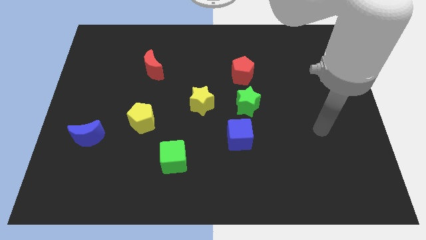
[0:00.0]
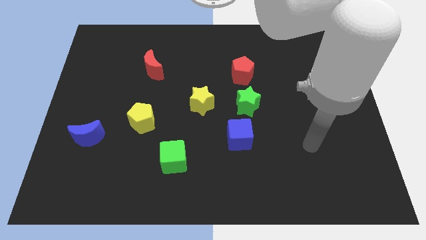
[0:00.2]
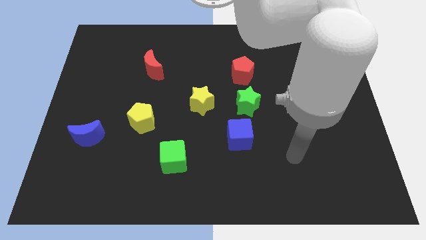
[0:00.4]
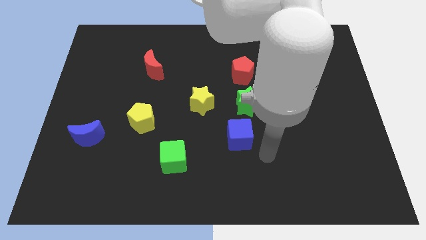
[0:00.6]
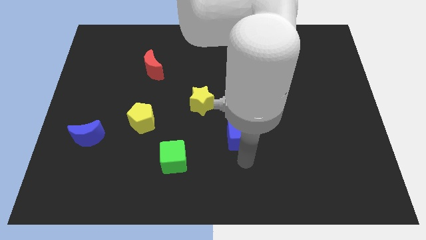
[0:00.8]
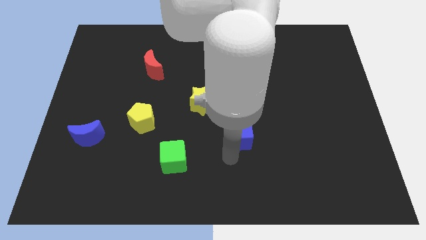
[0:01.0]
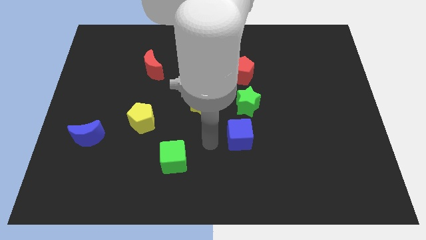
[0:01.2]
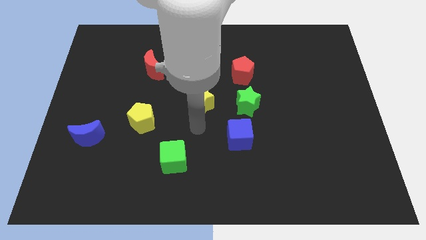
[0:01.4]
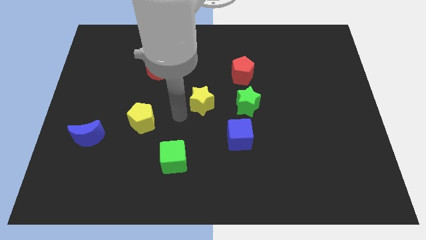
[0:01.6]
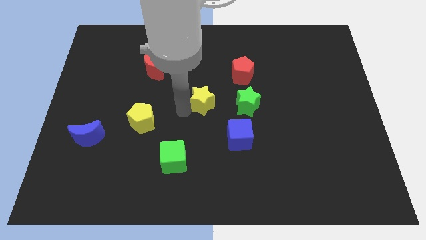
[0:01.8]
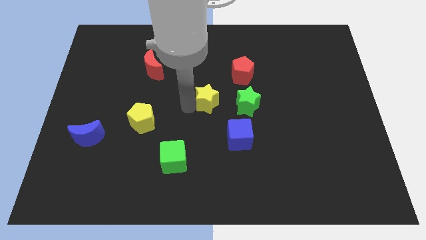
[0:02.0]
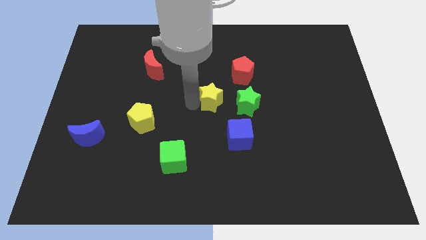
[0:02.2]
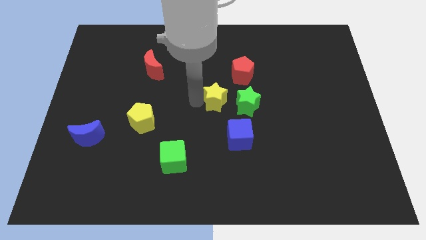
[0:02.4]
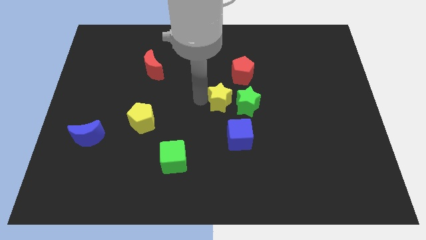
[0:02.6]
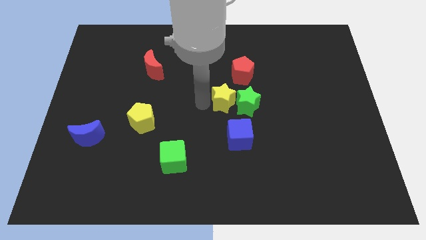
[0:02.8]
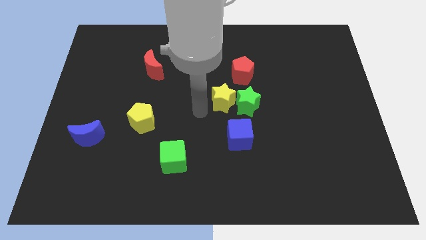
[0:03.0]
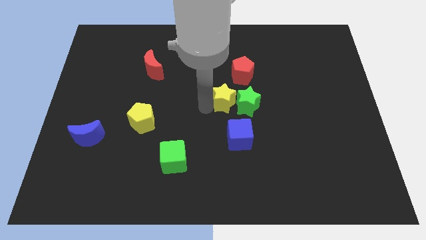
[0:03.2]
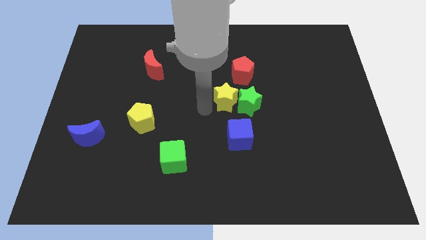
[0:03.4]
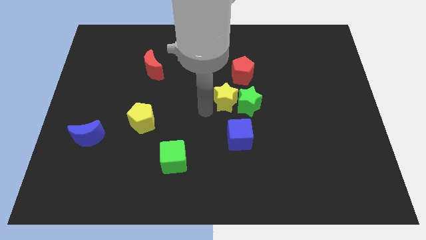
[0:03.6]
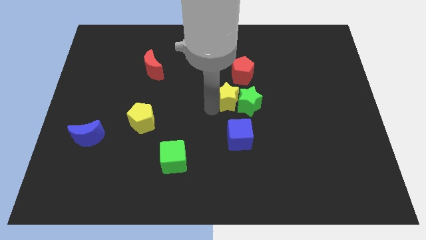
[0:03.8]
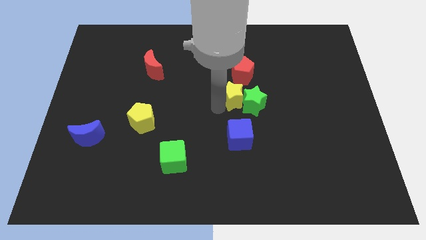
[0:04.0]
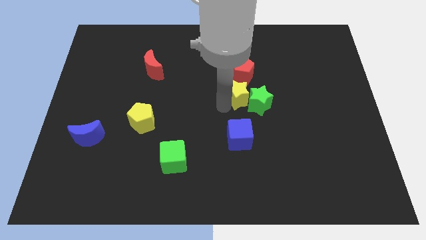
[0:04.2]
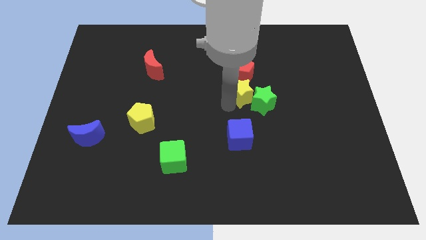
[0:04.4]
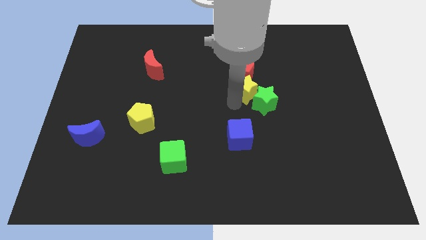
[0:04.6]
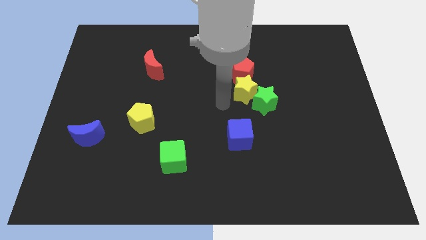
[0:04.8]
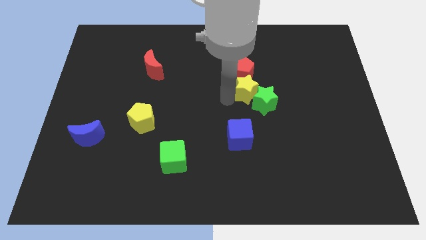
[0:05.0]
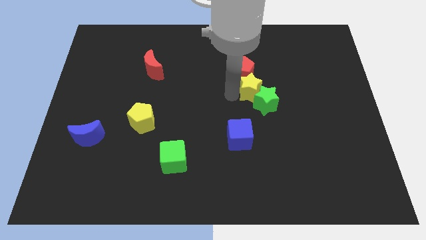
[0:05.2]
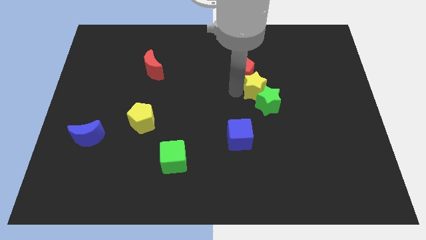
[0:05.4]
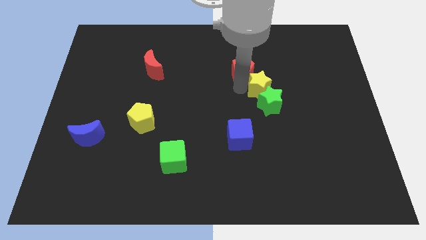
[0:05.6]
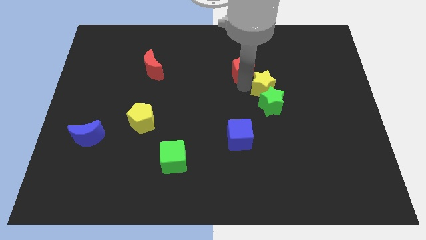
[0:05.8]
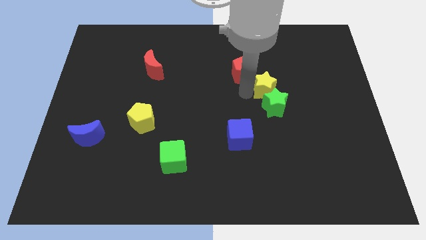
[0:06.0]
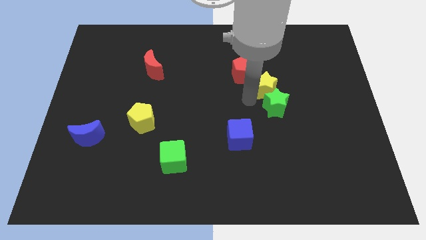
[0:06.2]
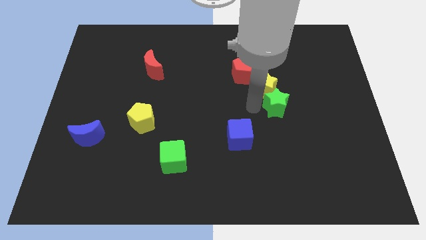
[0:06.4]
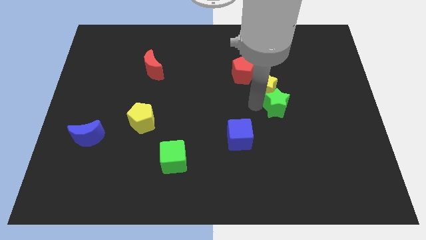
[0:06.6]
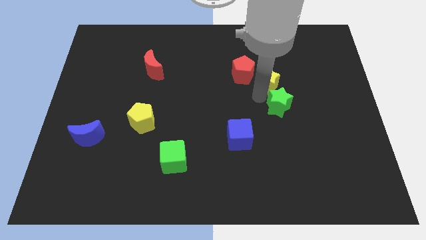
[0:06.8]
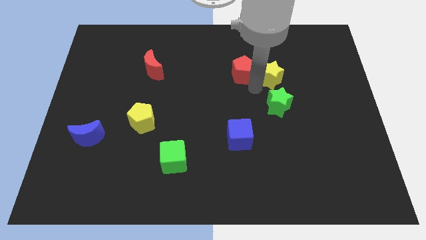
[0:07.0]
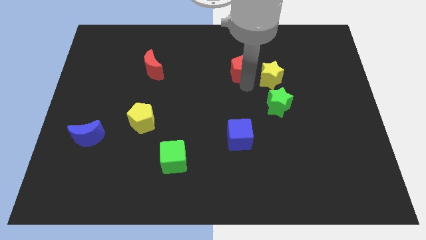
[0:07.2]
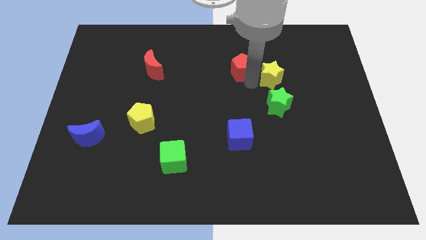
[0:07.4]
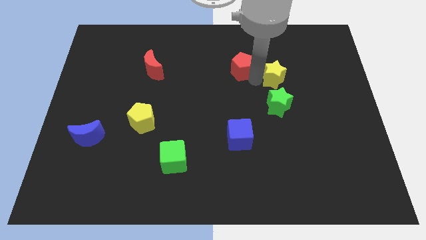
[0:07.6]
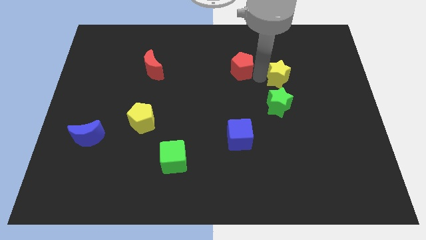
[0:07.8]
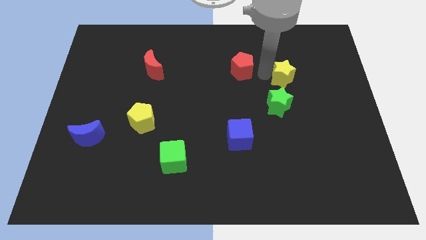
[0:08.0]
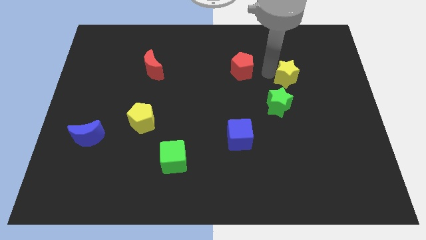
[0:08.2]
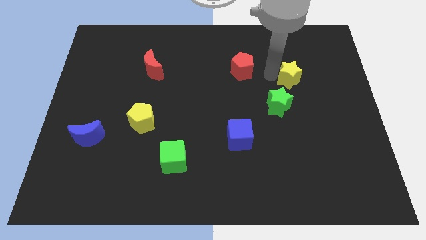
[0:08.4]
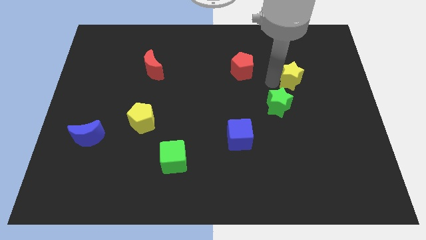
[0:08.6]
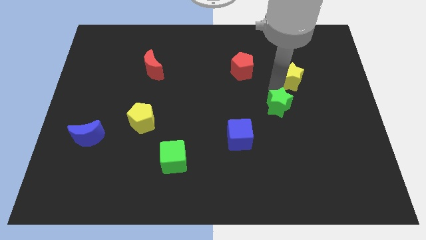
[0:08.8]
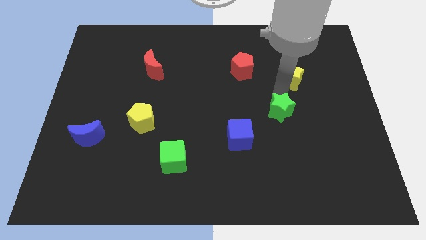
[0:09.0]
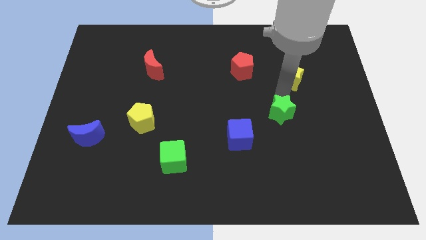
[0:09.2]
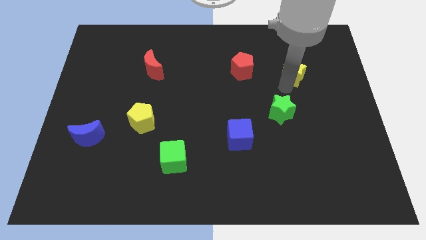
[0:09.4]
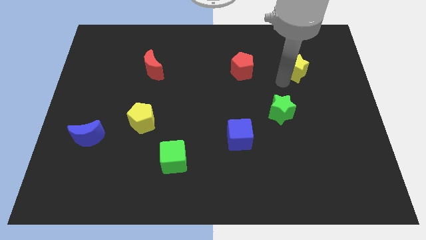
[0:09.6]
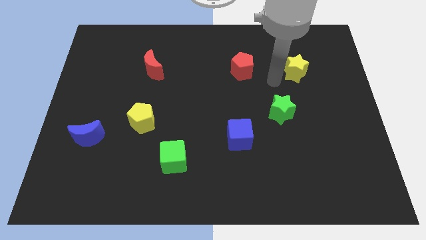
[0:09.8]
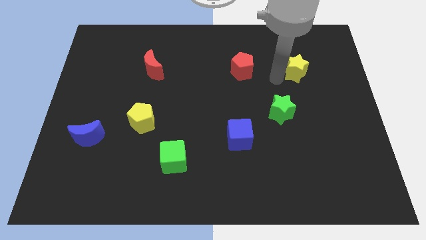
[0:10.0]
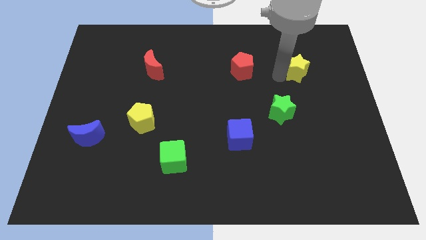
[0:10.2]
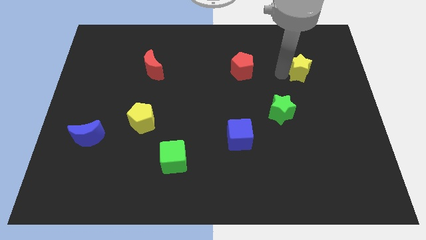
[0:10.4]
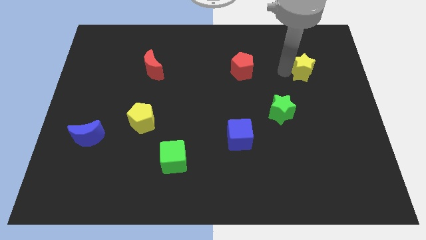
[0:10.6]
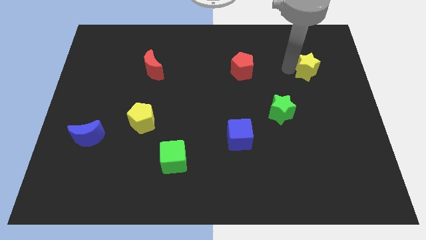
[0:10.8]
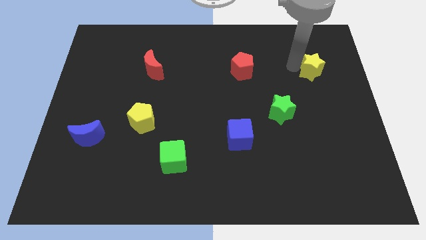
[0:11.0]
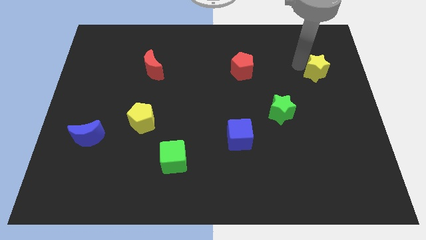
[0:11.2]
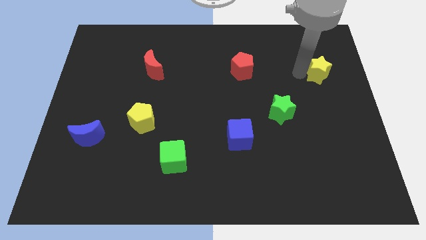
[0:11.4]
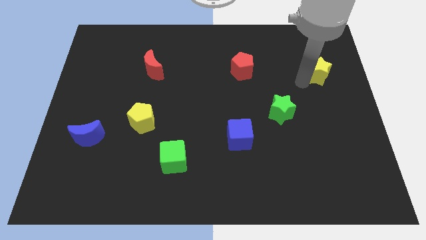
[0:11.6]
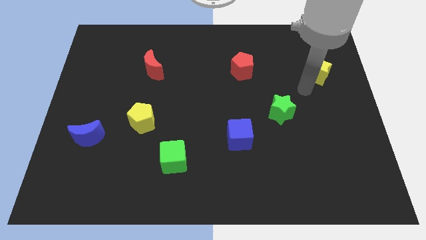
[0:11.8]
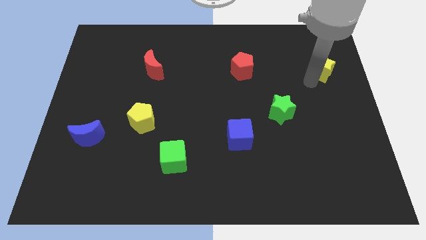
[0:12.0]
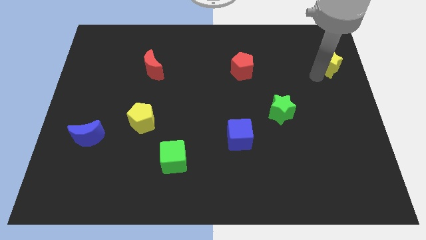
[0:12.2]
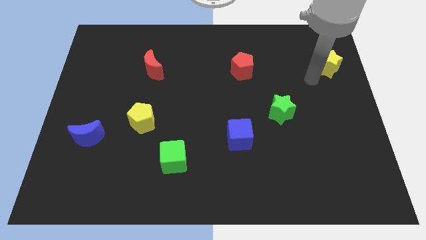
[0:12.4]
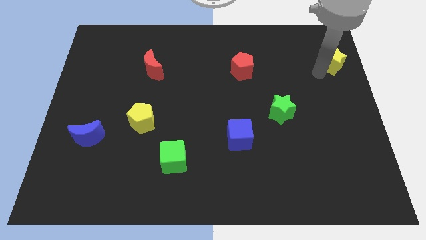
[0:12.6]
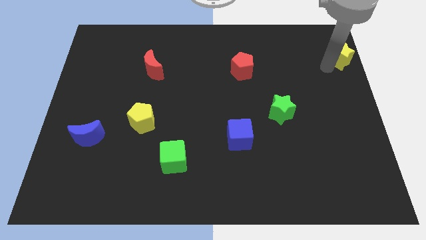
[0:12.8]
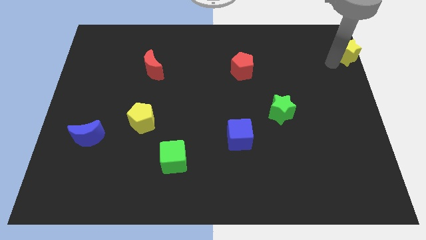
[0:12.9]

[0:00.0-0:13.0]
move the yellow star to the top right of the board
